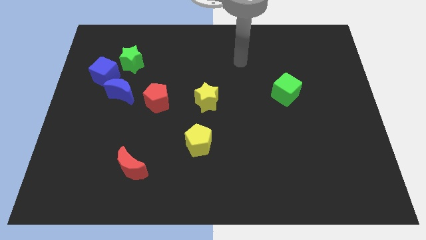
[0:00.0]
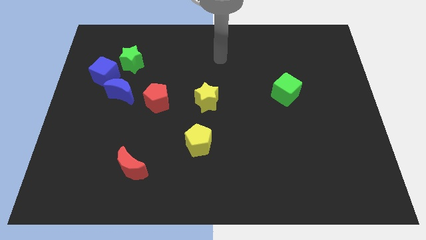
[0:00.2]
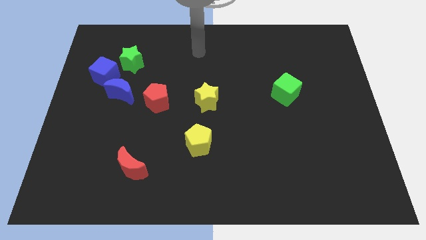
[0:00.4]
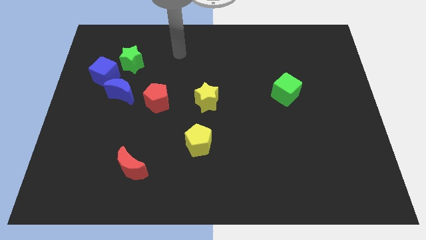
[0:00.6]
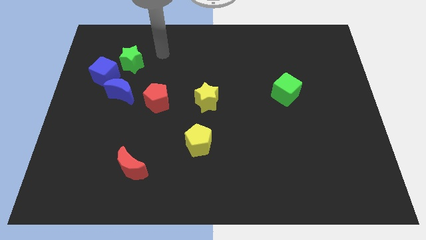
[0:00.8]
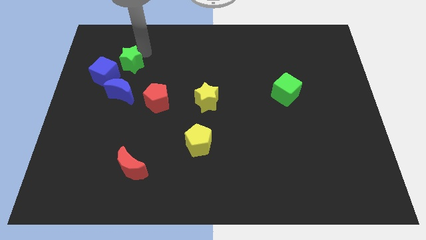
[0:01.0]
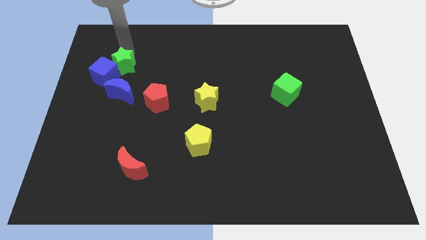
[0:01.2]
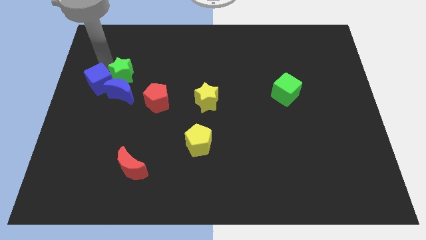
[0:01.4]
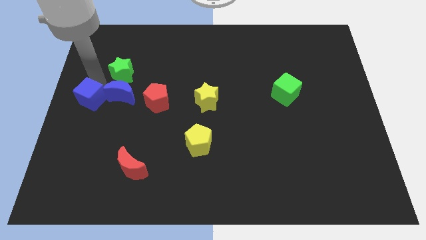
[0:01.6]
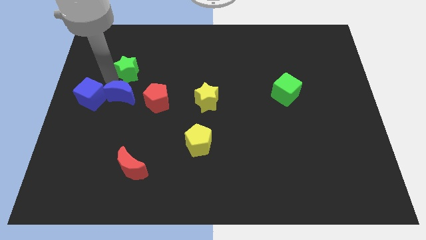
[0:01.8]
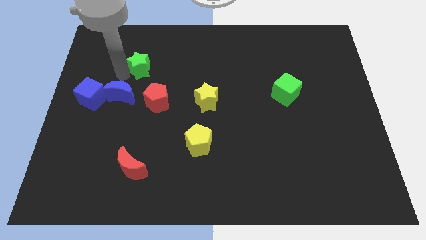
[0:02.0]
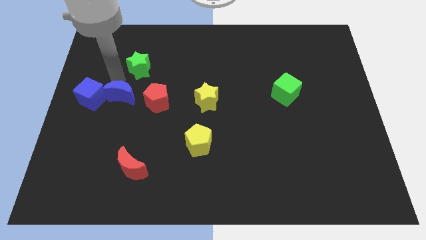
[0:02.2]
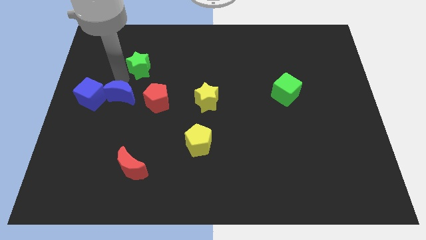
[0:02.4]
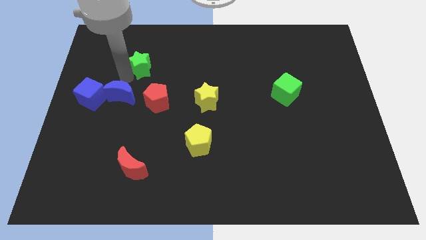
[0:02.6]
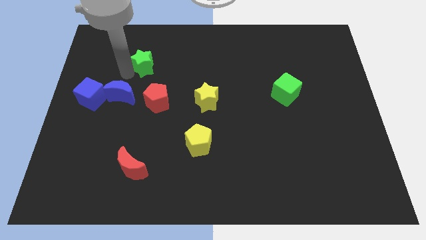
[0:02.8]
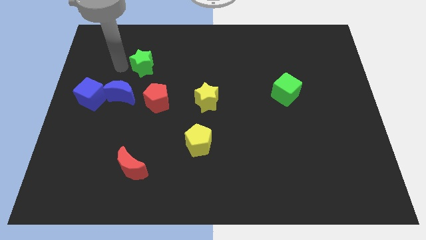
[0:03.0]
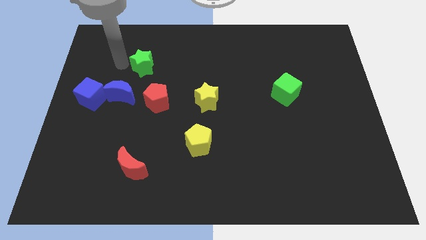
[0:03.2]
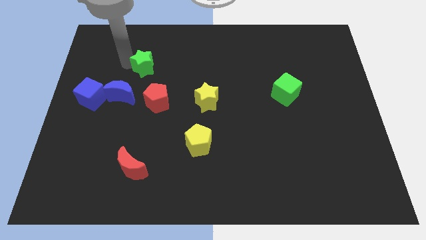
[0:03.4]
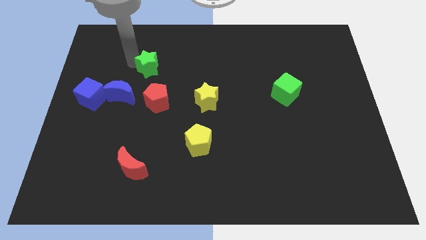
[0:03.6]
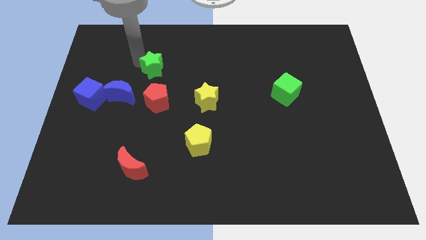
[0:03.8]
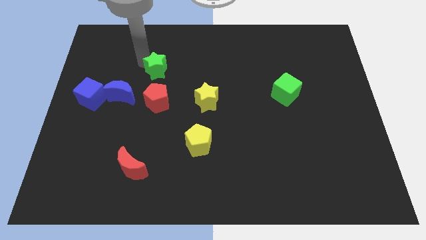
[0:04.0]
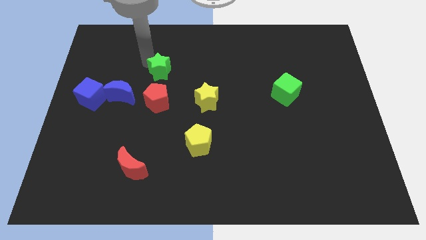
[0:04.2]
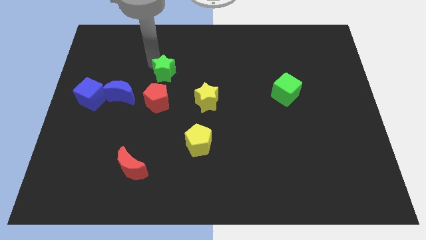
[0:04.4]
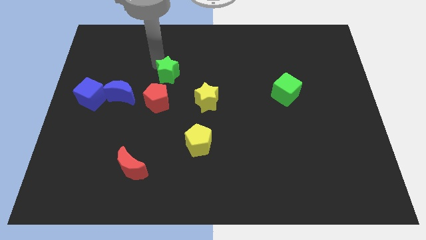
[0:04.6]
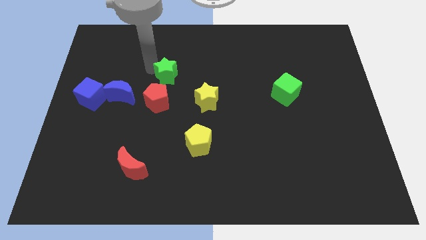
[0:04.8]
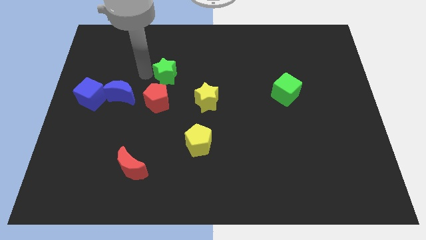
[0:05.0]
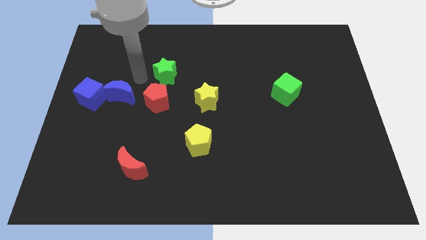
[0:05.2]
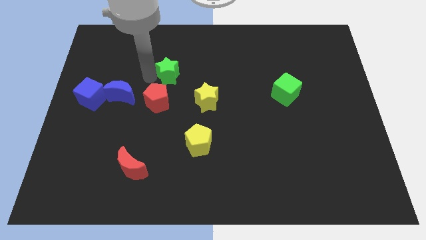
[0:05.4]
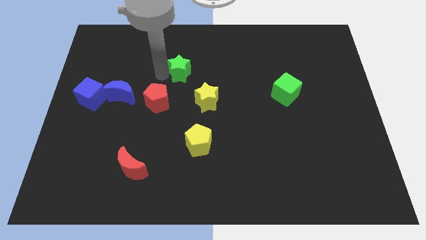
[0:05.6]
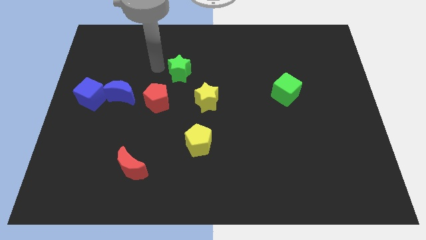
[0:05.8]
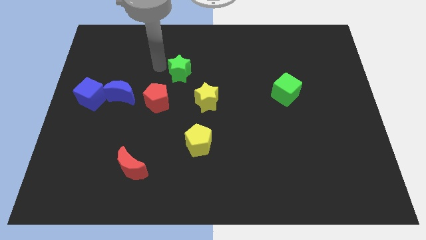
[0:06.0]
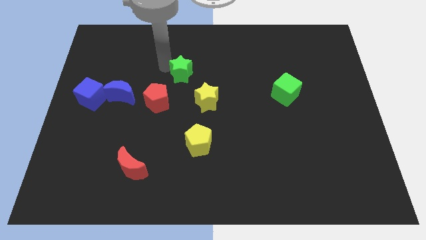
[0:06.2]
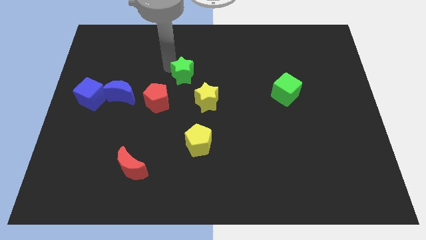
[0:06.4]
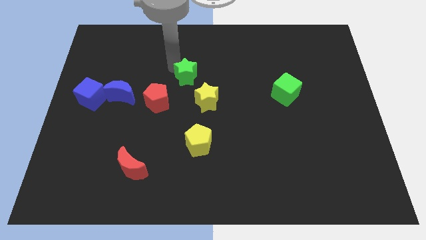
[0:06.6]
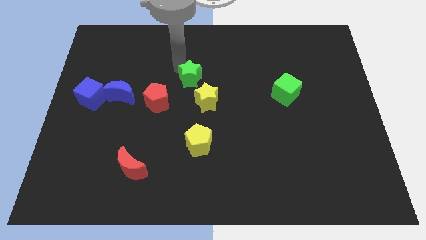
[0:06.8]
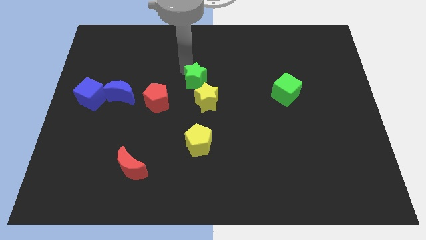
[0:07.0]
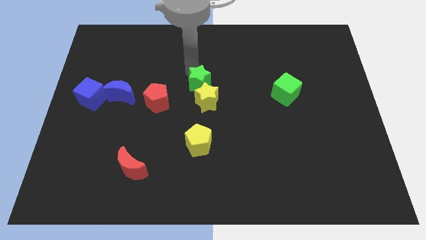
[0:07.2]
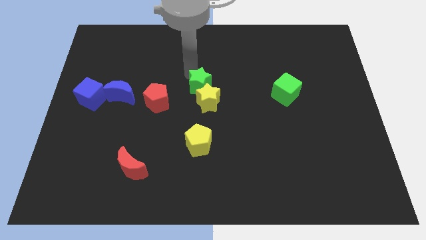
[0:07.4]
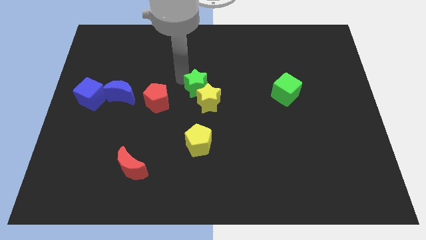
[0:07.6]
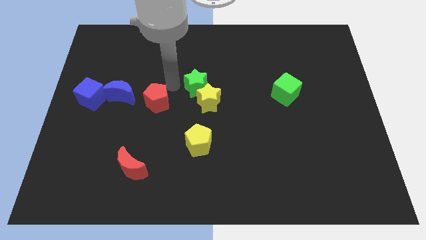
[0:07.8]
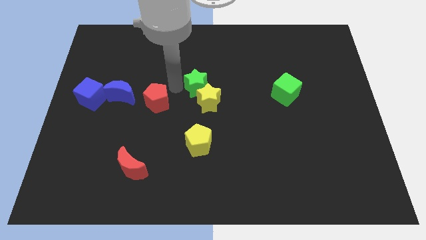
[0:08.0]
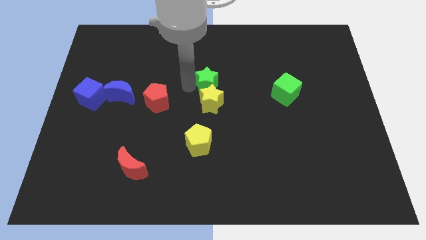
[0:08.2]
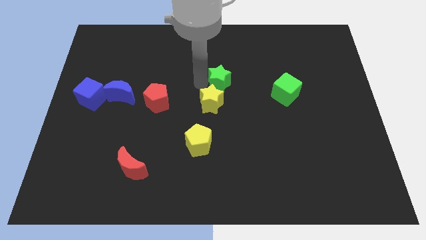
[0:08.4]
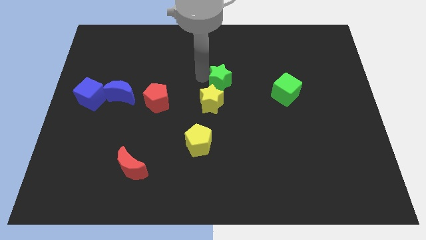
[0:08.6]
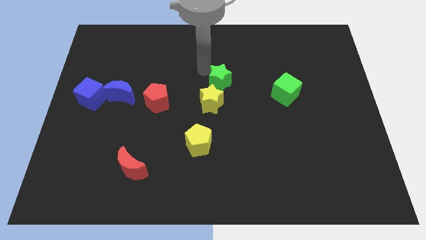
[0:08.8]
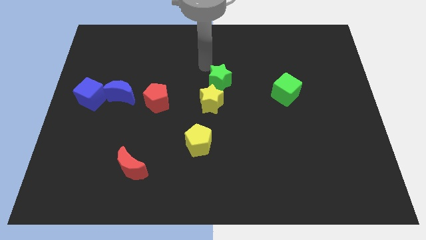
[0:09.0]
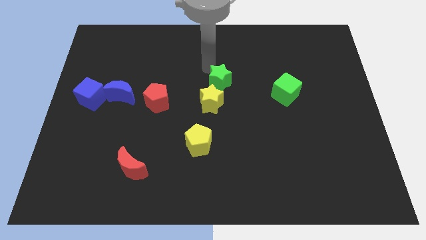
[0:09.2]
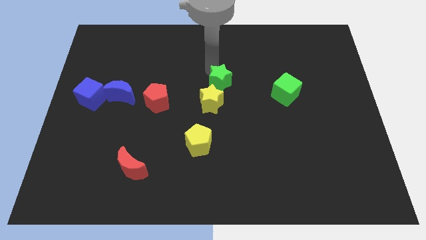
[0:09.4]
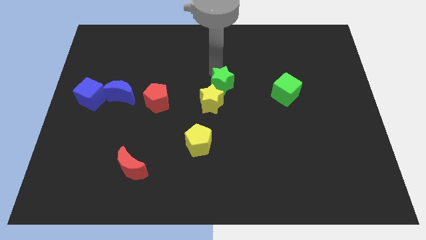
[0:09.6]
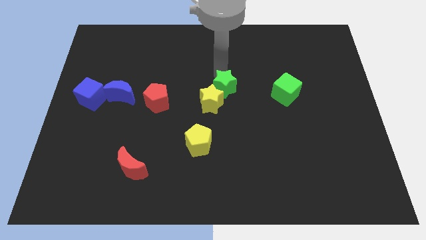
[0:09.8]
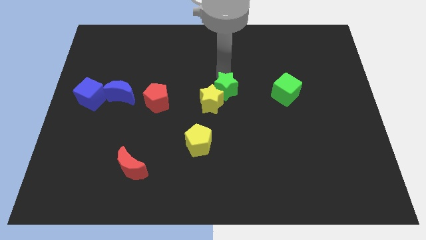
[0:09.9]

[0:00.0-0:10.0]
slide the green star to the right of the yellow star

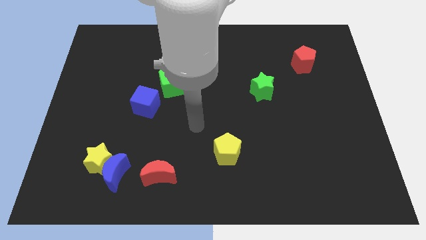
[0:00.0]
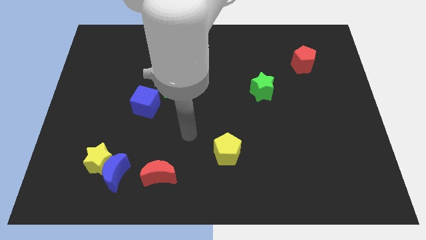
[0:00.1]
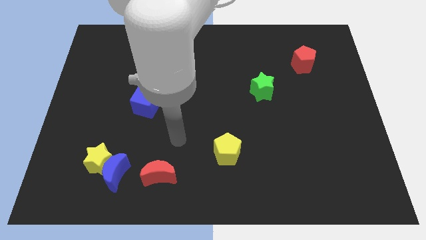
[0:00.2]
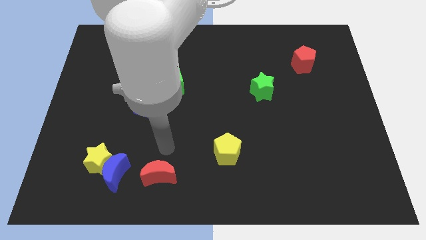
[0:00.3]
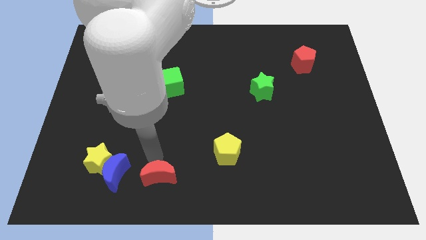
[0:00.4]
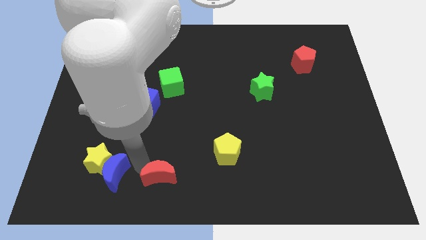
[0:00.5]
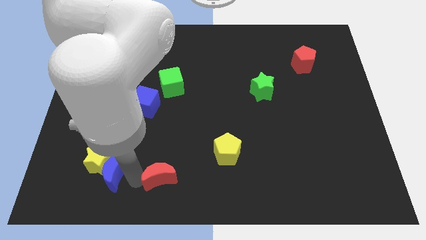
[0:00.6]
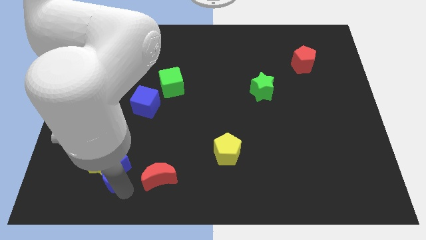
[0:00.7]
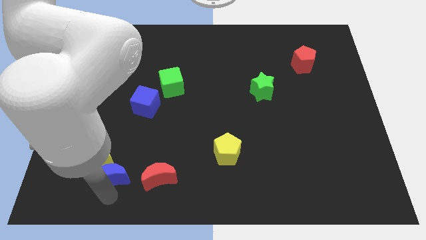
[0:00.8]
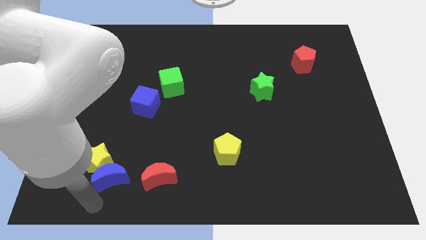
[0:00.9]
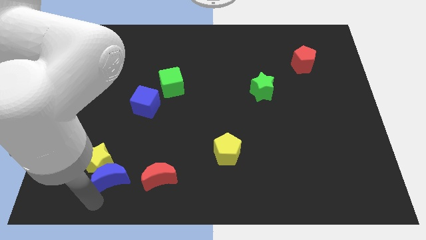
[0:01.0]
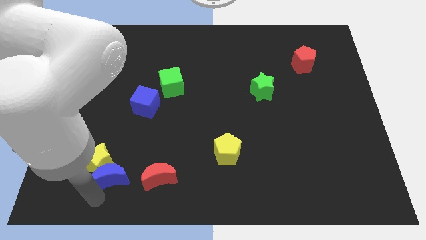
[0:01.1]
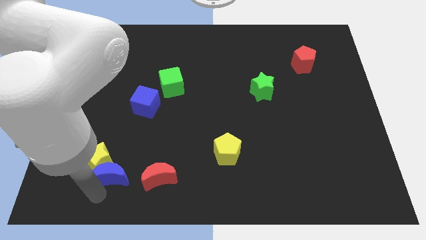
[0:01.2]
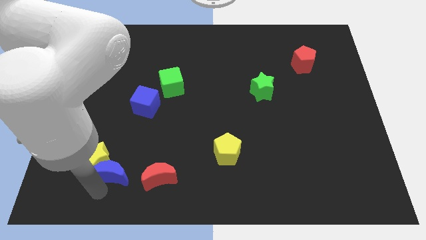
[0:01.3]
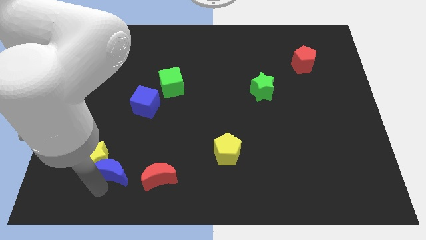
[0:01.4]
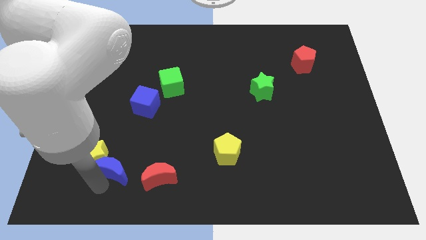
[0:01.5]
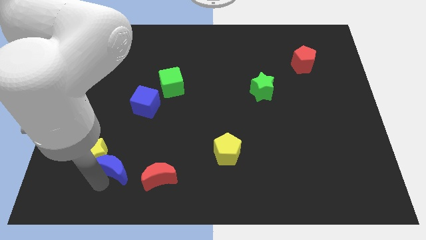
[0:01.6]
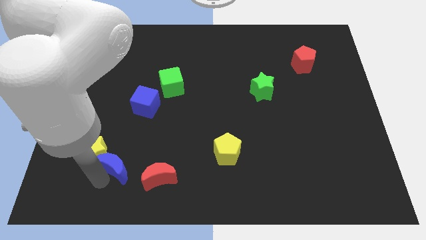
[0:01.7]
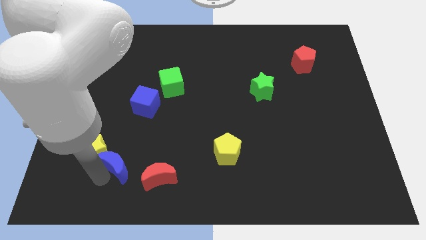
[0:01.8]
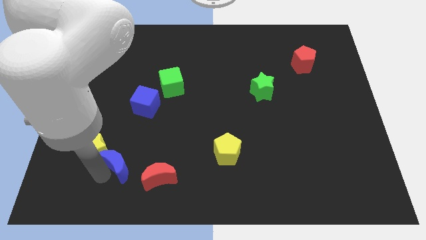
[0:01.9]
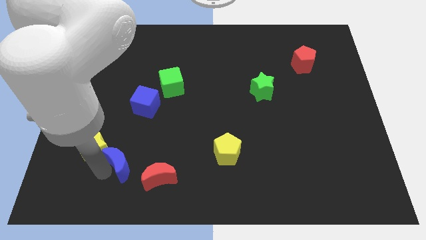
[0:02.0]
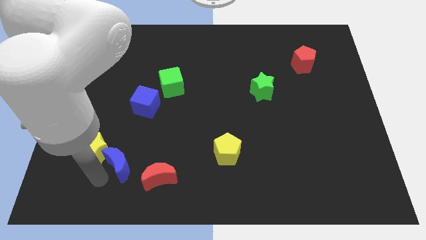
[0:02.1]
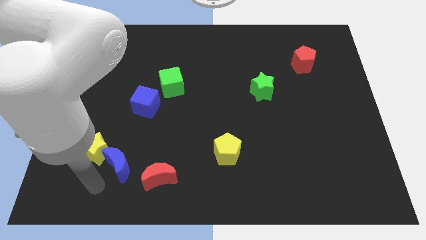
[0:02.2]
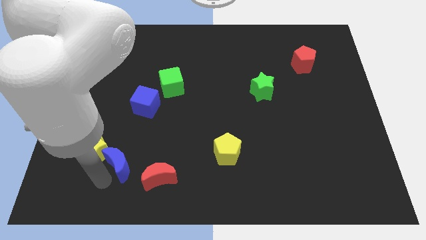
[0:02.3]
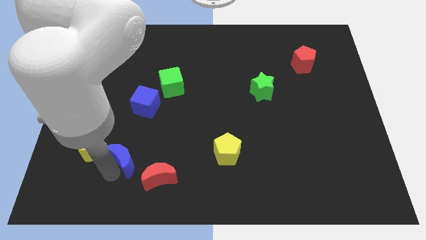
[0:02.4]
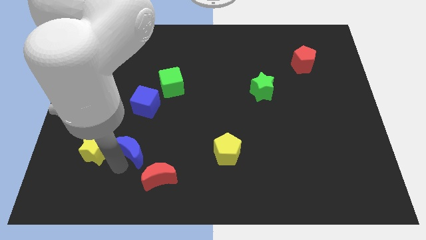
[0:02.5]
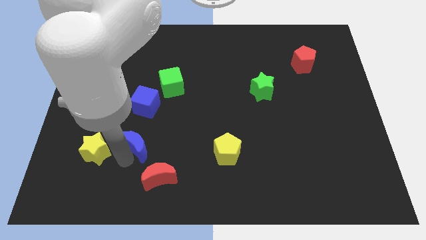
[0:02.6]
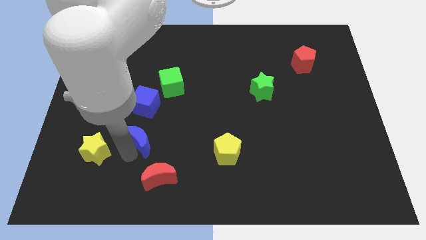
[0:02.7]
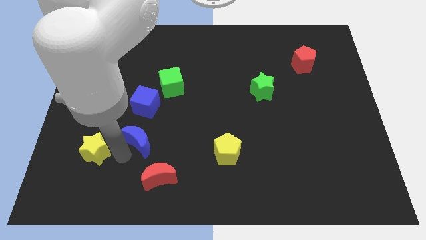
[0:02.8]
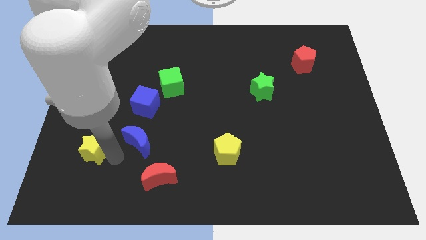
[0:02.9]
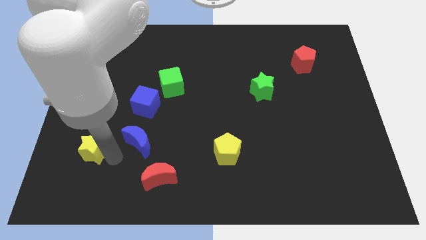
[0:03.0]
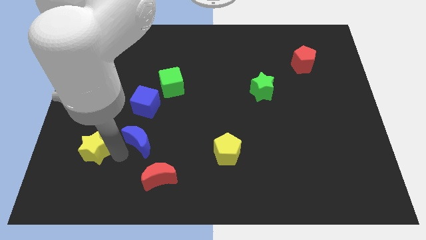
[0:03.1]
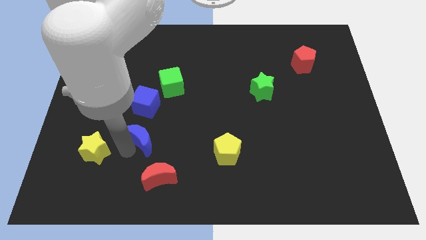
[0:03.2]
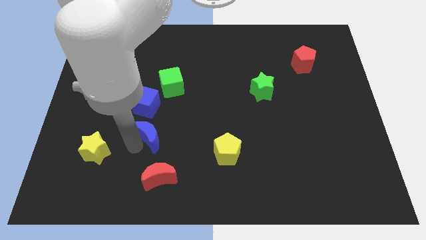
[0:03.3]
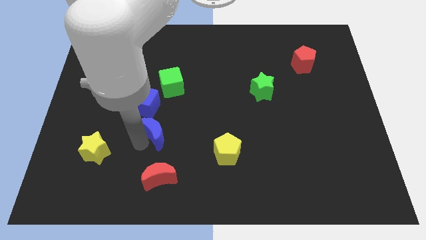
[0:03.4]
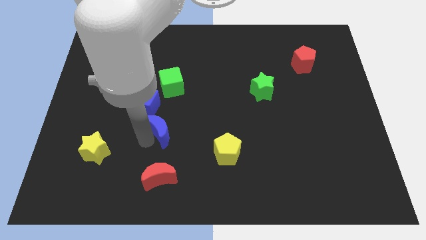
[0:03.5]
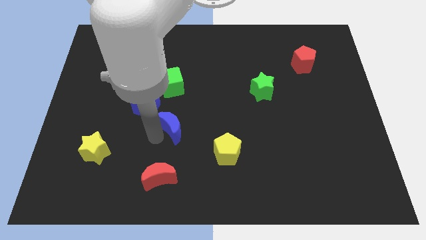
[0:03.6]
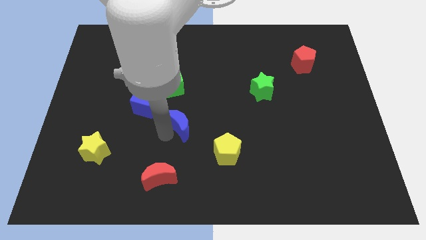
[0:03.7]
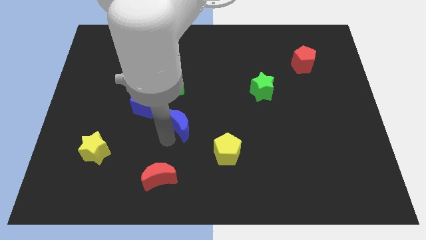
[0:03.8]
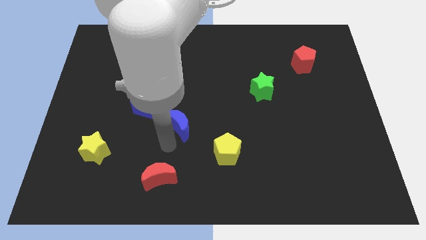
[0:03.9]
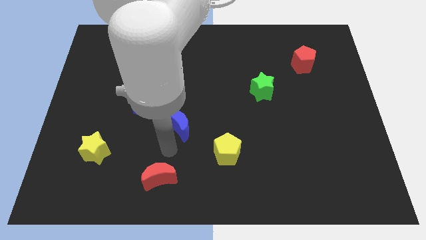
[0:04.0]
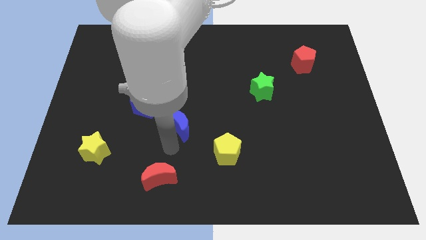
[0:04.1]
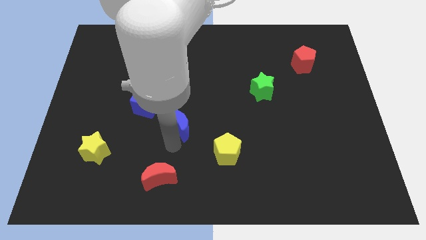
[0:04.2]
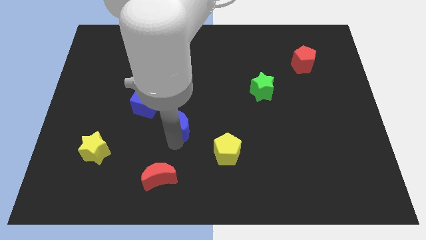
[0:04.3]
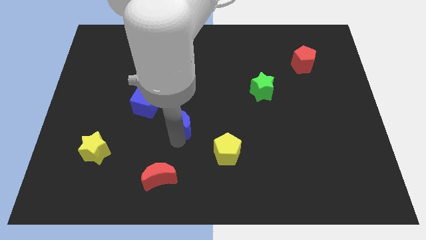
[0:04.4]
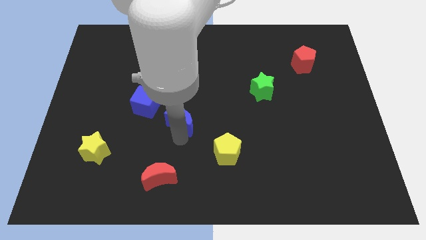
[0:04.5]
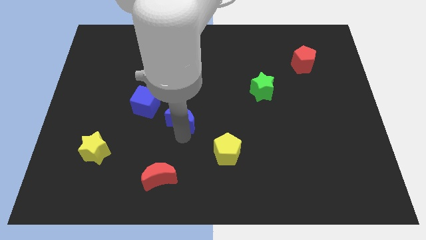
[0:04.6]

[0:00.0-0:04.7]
put the blue moon to the right of the blue cube
